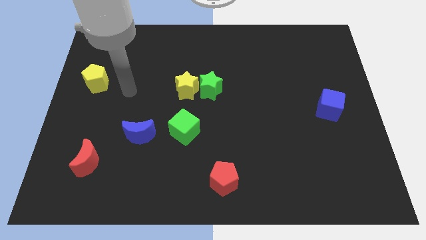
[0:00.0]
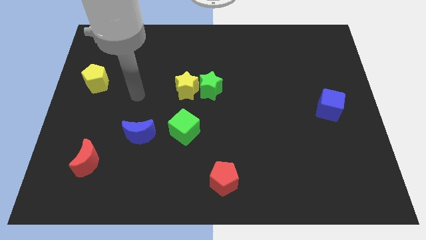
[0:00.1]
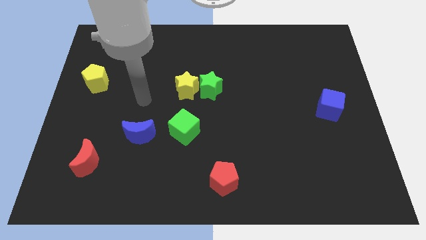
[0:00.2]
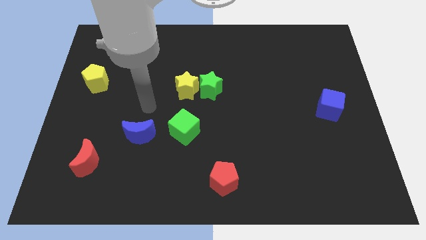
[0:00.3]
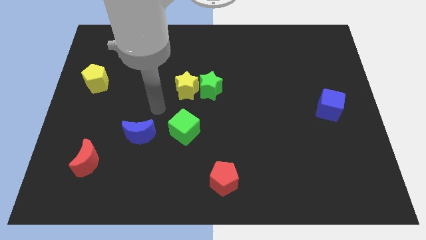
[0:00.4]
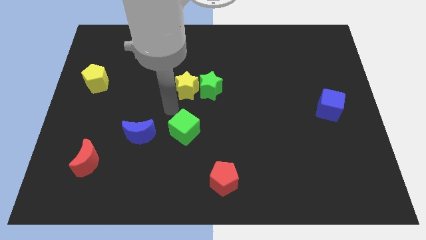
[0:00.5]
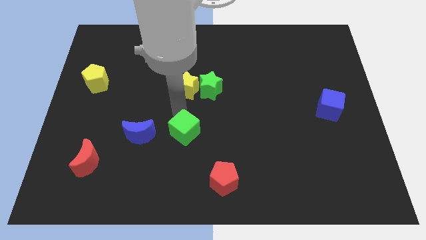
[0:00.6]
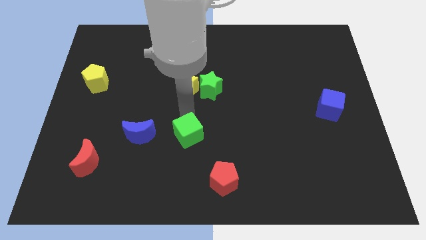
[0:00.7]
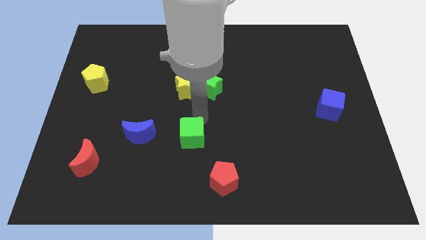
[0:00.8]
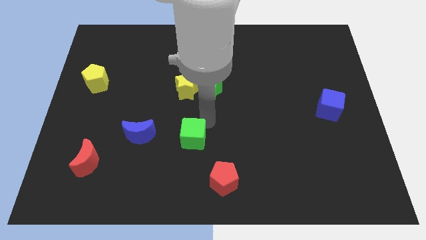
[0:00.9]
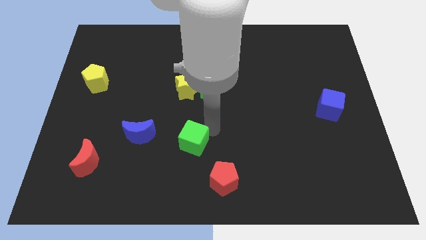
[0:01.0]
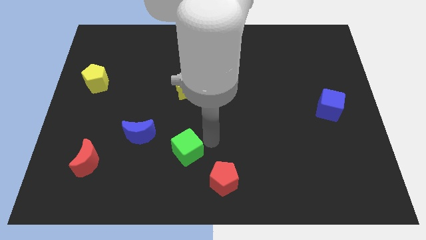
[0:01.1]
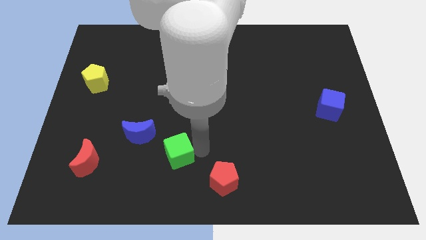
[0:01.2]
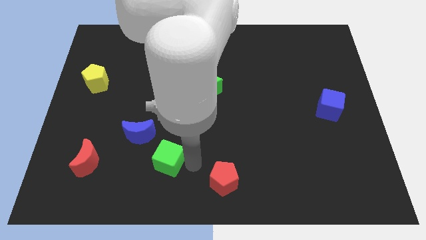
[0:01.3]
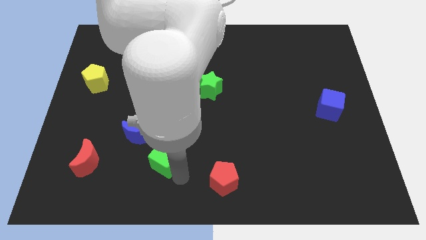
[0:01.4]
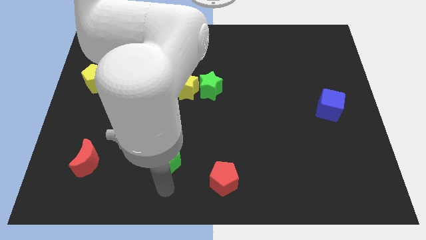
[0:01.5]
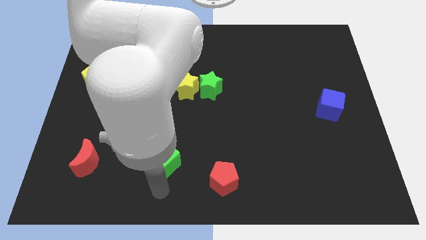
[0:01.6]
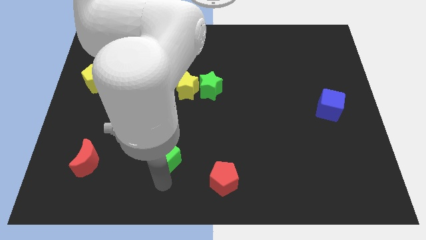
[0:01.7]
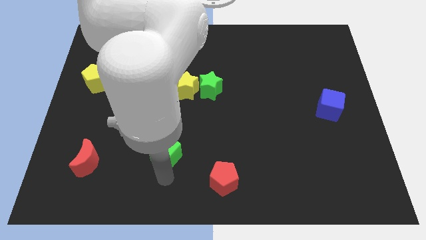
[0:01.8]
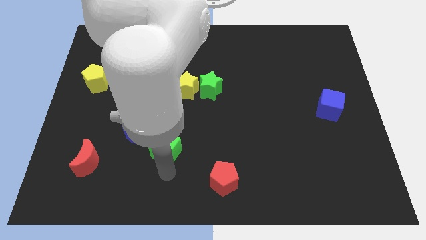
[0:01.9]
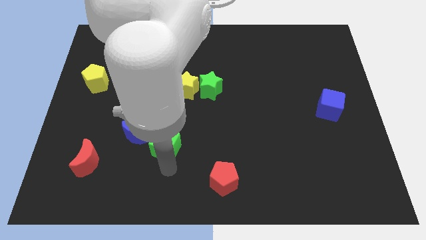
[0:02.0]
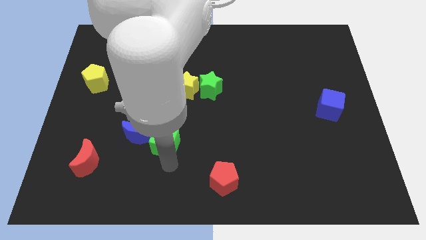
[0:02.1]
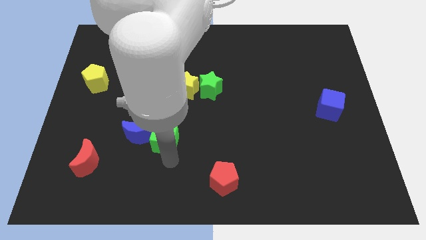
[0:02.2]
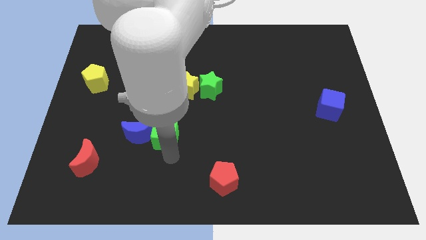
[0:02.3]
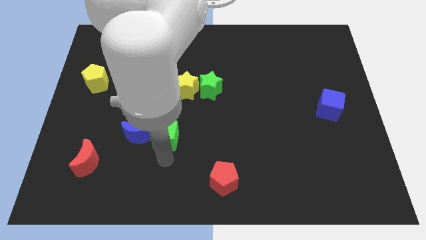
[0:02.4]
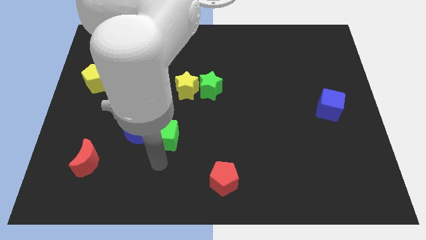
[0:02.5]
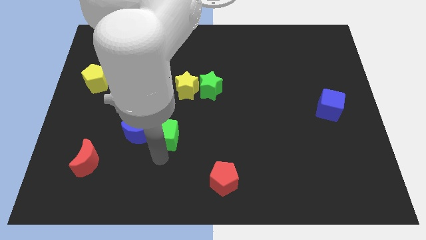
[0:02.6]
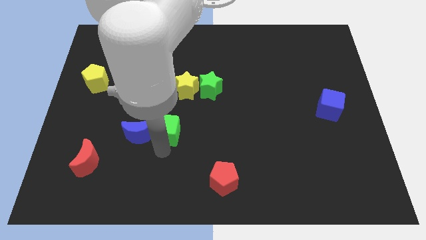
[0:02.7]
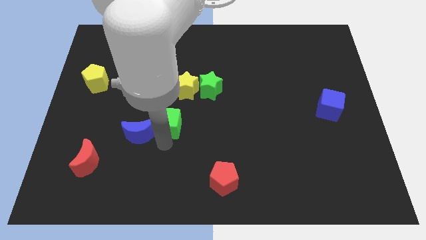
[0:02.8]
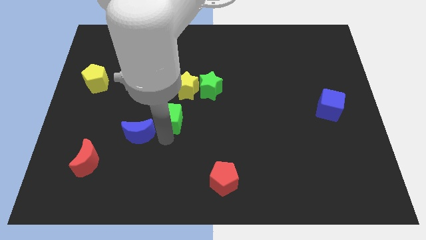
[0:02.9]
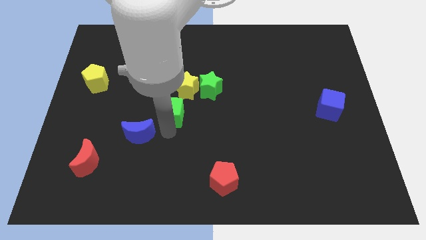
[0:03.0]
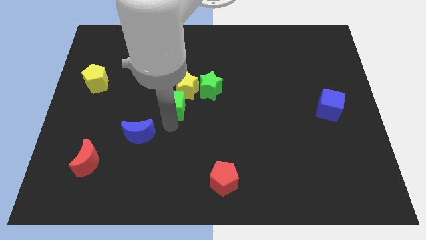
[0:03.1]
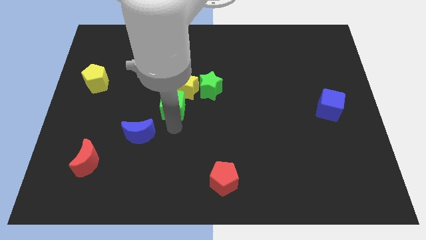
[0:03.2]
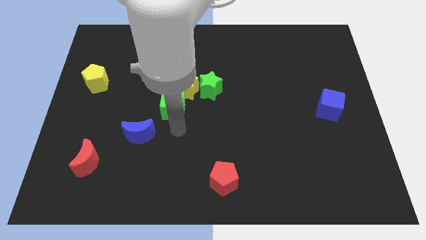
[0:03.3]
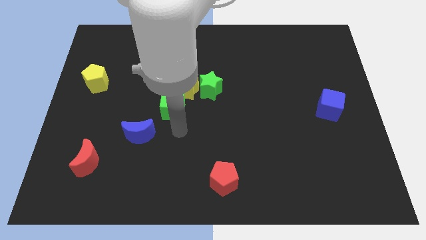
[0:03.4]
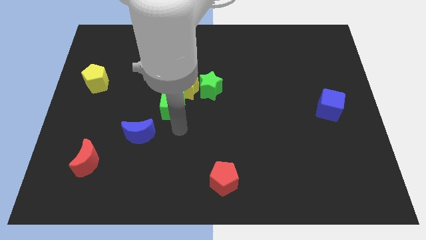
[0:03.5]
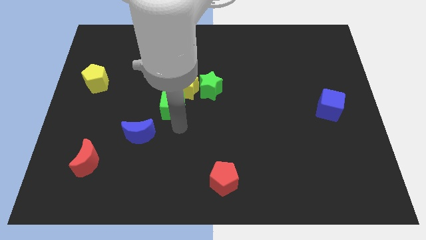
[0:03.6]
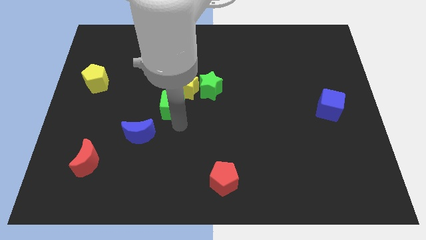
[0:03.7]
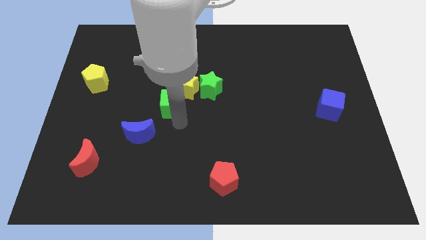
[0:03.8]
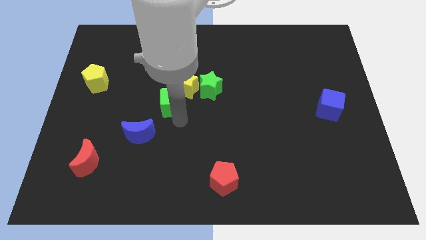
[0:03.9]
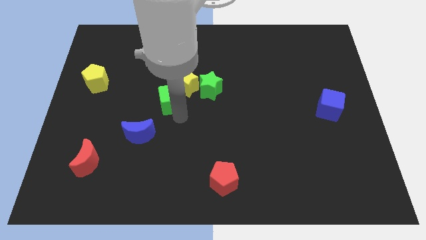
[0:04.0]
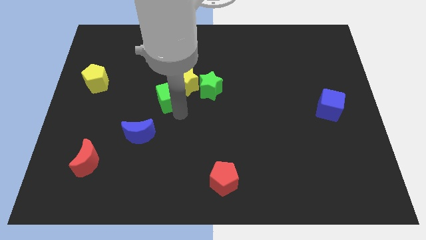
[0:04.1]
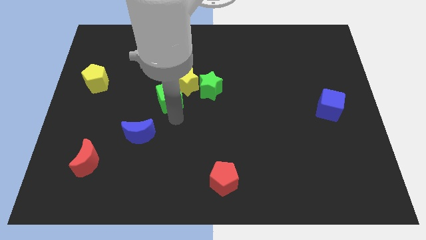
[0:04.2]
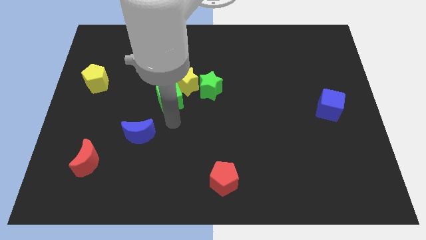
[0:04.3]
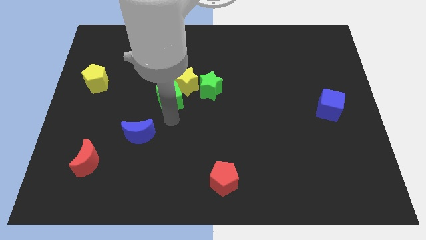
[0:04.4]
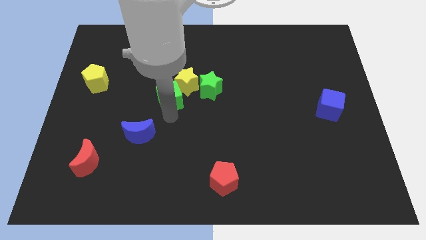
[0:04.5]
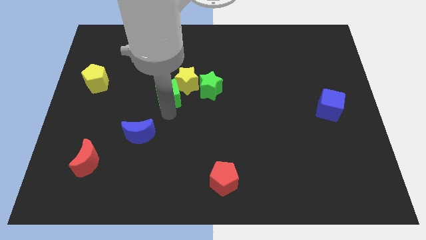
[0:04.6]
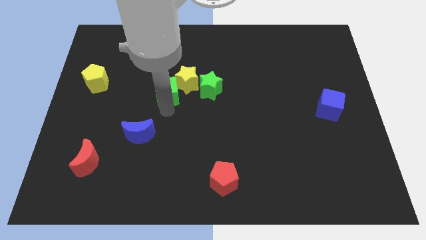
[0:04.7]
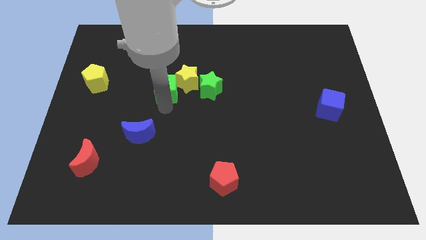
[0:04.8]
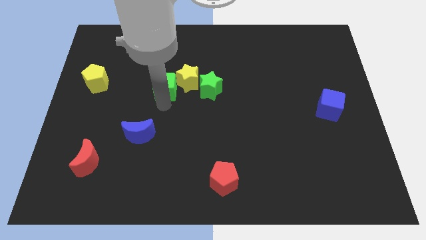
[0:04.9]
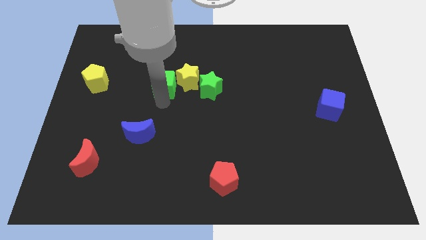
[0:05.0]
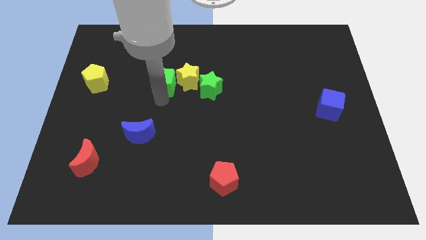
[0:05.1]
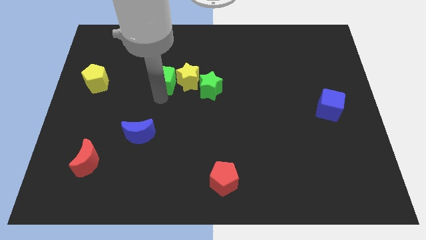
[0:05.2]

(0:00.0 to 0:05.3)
slide the green cube to the top left of the yellow star

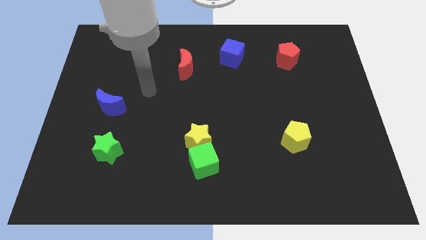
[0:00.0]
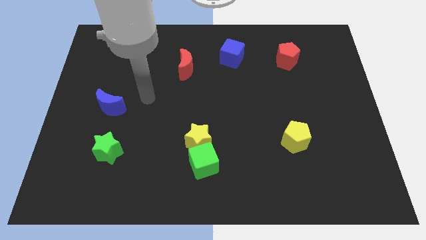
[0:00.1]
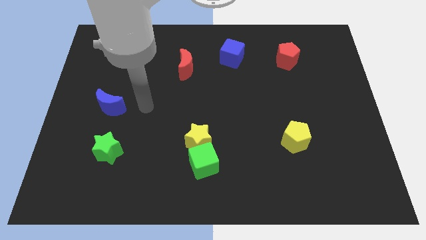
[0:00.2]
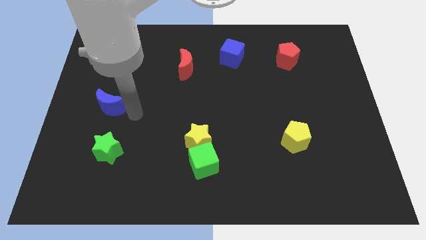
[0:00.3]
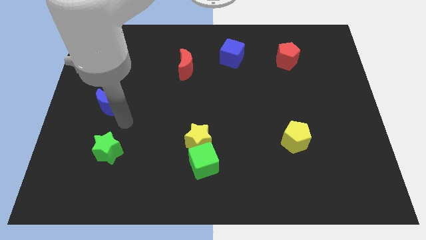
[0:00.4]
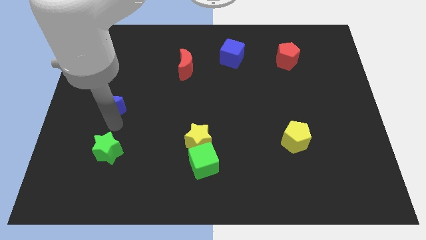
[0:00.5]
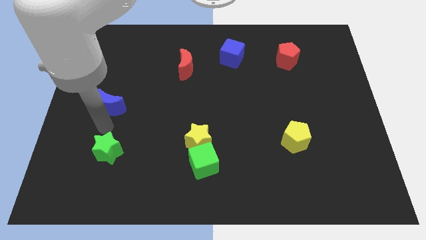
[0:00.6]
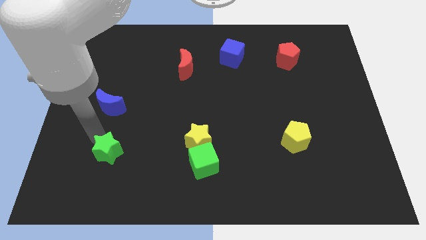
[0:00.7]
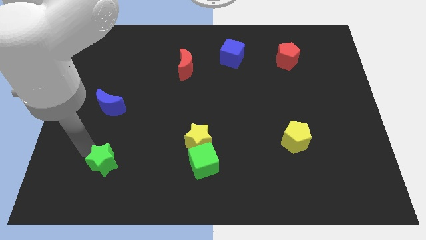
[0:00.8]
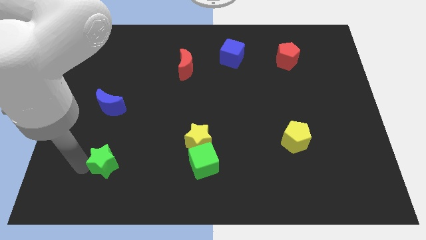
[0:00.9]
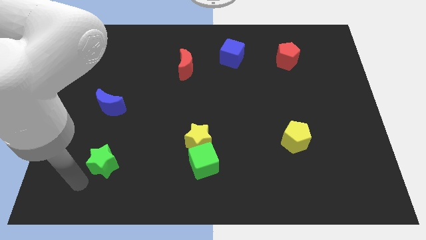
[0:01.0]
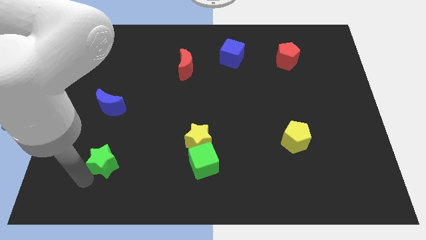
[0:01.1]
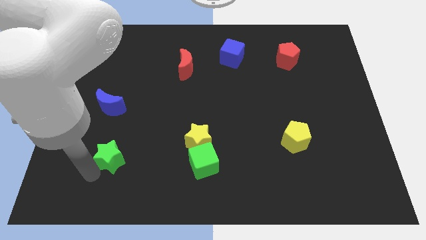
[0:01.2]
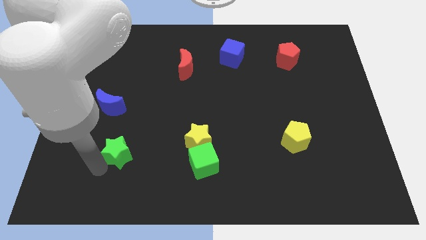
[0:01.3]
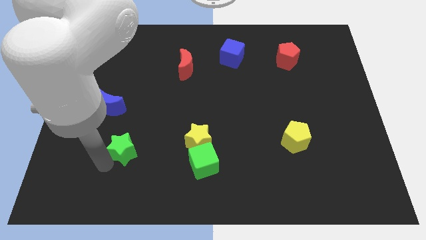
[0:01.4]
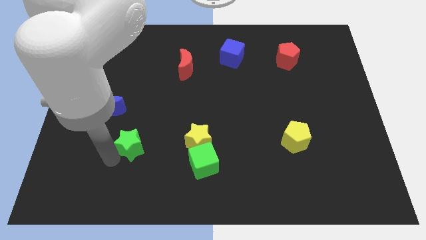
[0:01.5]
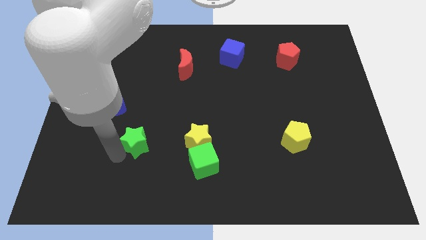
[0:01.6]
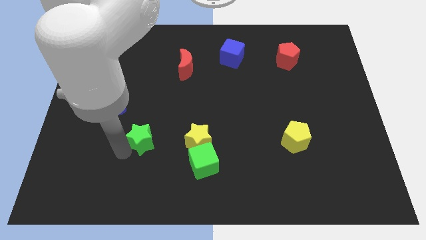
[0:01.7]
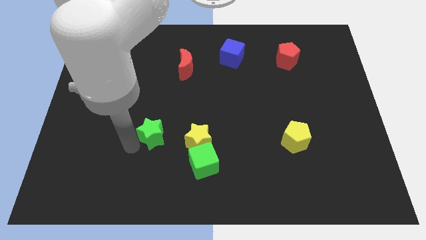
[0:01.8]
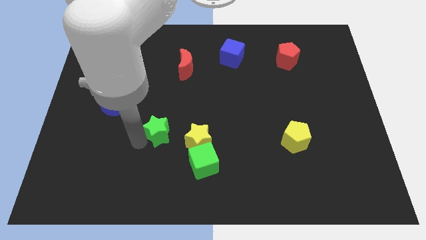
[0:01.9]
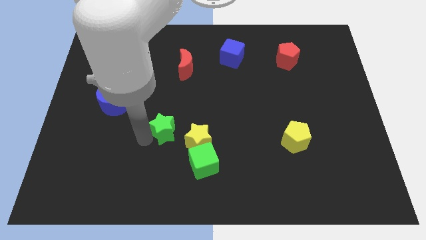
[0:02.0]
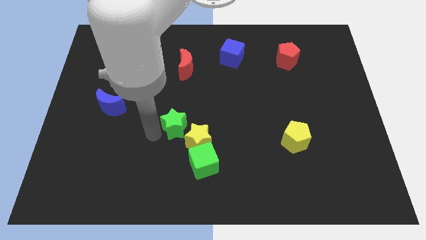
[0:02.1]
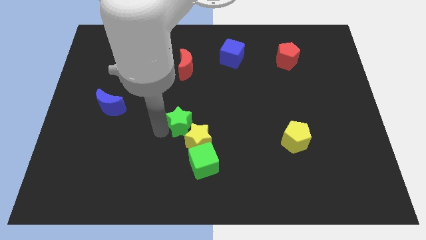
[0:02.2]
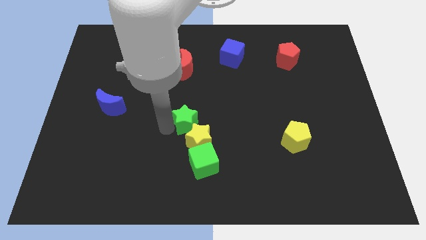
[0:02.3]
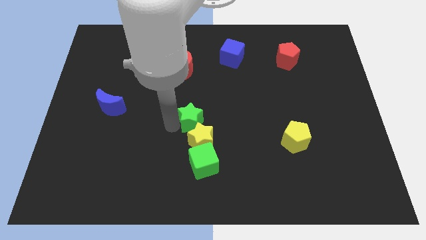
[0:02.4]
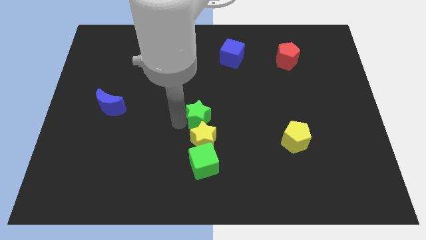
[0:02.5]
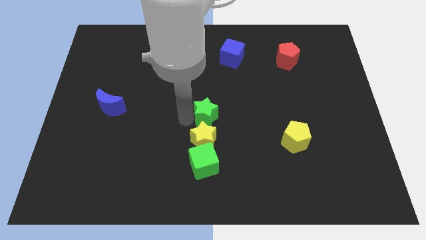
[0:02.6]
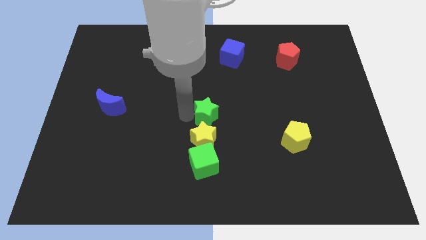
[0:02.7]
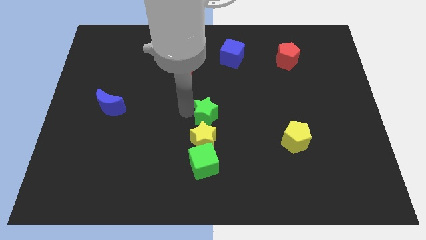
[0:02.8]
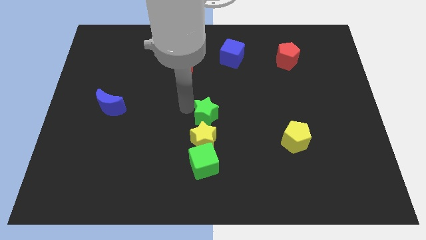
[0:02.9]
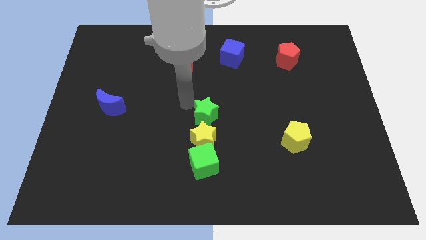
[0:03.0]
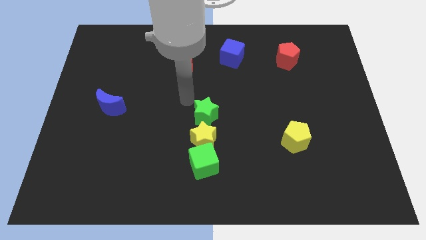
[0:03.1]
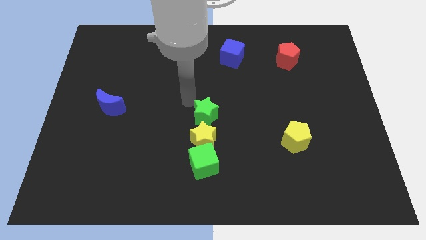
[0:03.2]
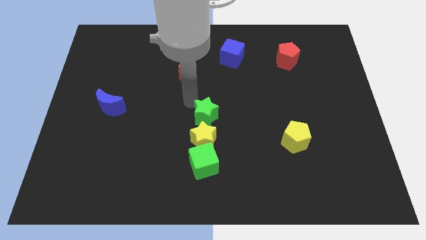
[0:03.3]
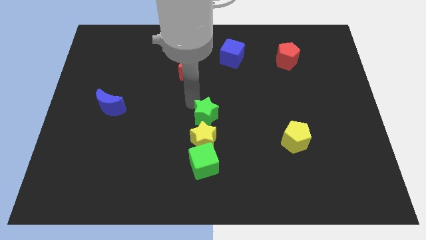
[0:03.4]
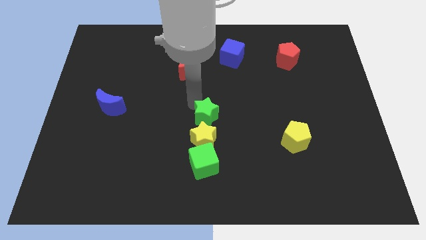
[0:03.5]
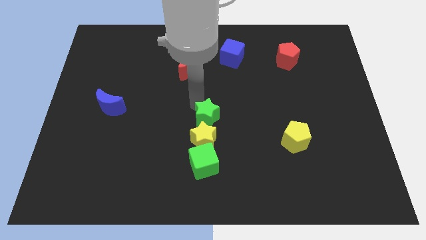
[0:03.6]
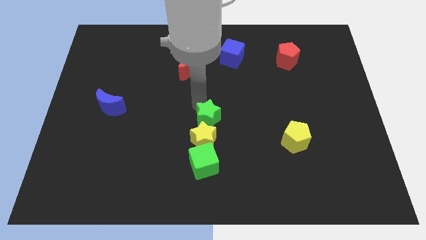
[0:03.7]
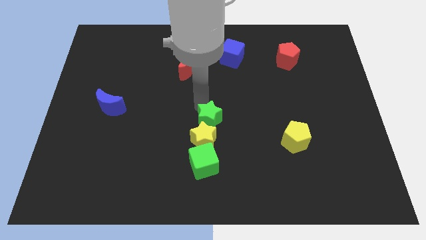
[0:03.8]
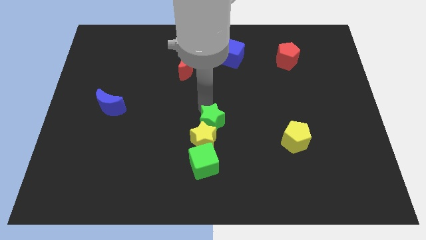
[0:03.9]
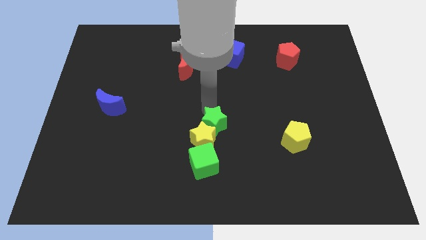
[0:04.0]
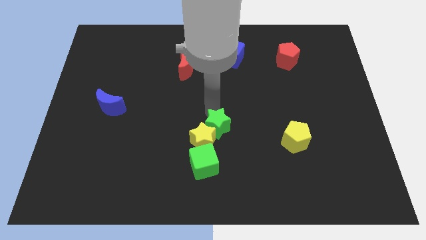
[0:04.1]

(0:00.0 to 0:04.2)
slide the green star just right of the yellow star
